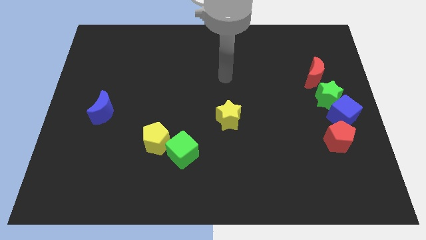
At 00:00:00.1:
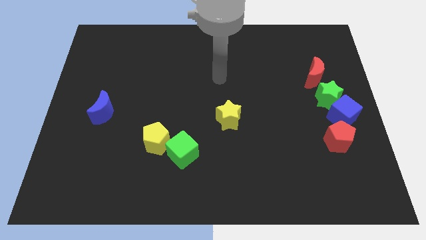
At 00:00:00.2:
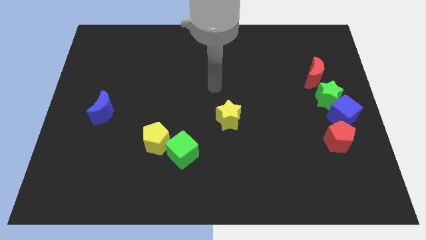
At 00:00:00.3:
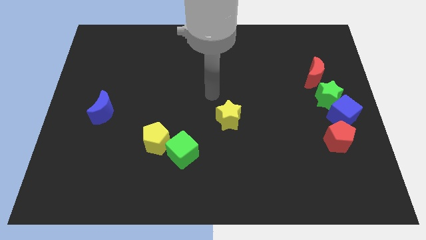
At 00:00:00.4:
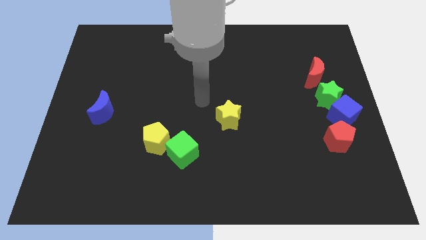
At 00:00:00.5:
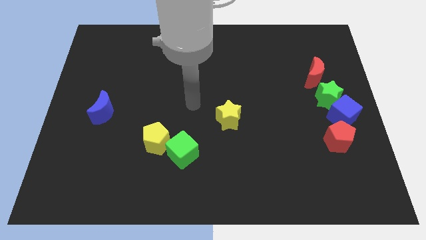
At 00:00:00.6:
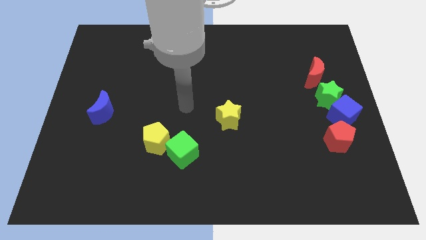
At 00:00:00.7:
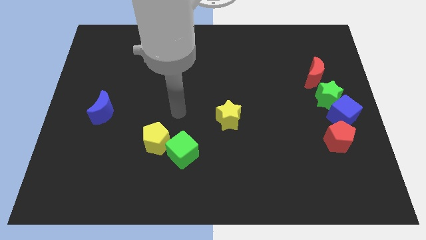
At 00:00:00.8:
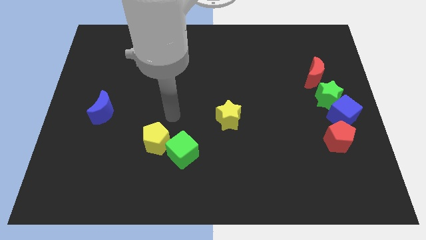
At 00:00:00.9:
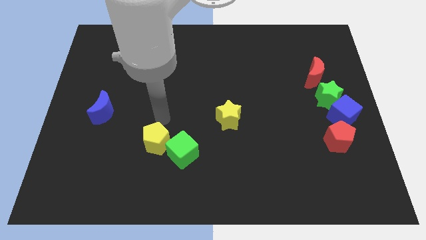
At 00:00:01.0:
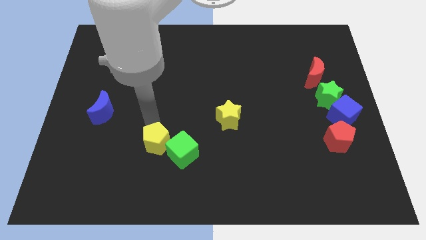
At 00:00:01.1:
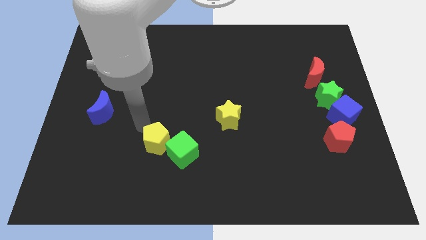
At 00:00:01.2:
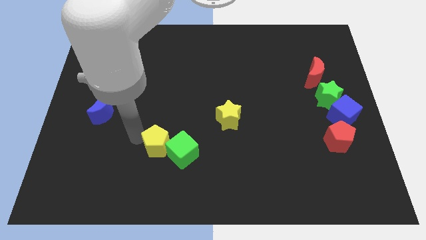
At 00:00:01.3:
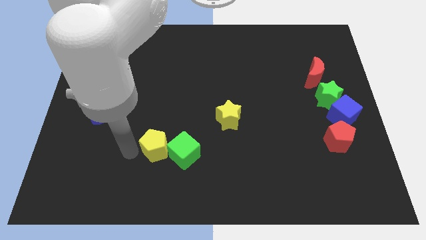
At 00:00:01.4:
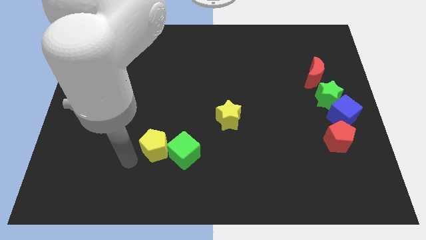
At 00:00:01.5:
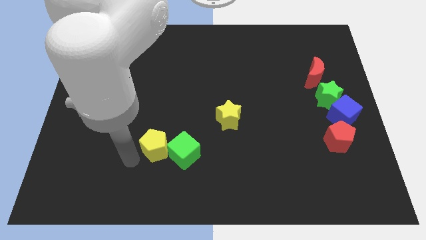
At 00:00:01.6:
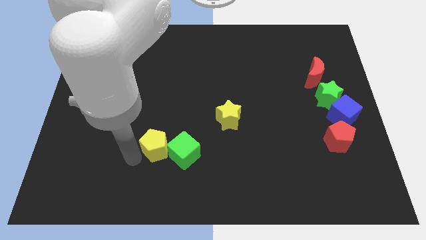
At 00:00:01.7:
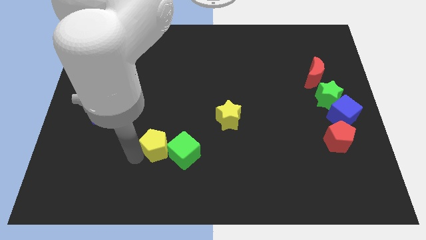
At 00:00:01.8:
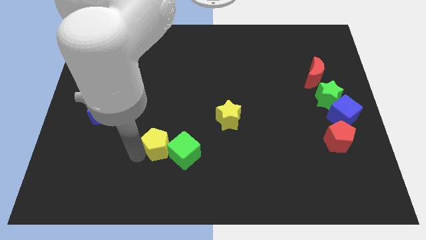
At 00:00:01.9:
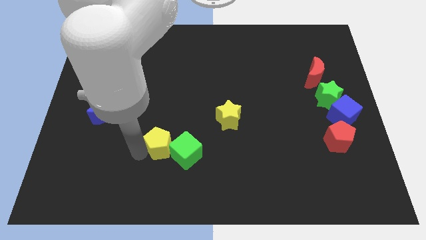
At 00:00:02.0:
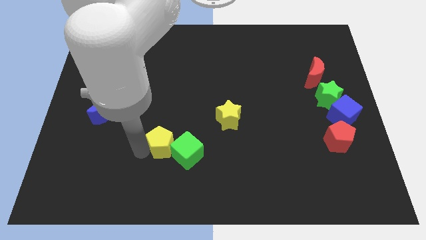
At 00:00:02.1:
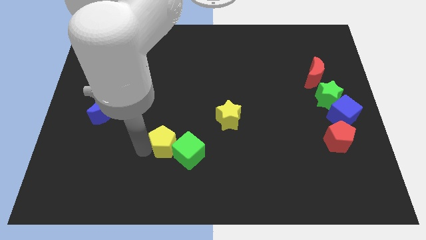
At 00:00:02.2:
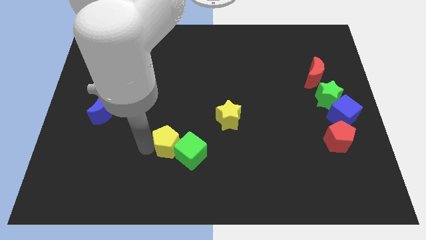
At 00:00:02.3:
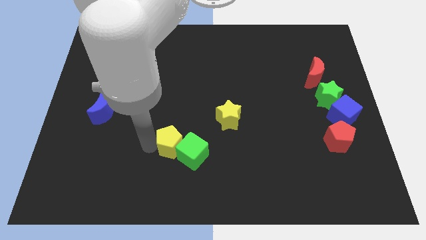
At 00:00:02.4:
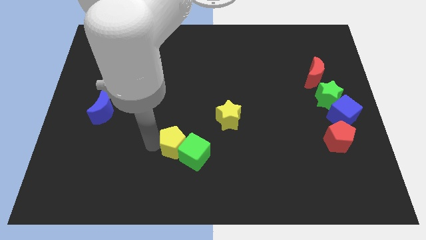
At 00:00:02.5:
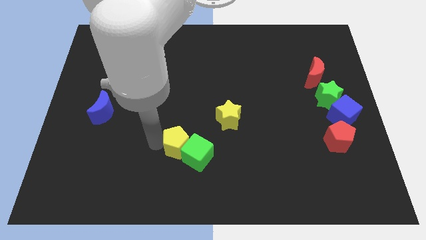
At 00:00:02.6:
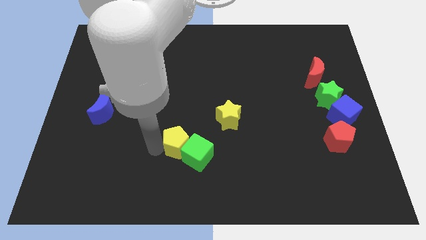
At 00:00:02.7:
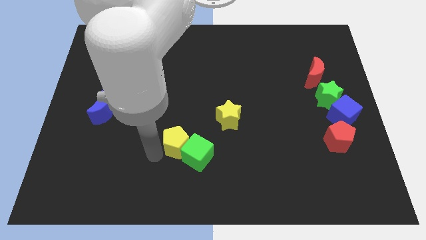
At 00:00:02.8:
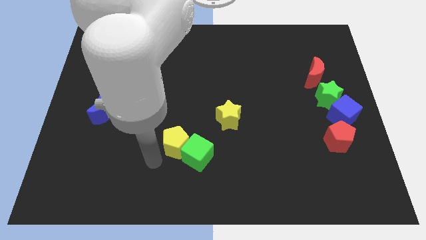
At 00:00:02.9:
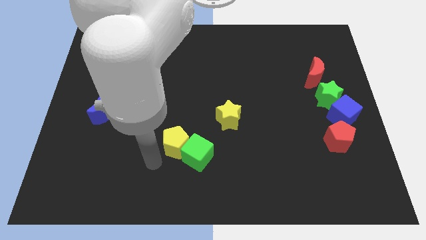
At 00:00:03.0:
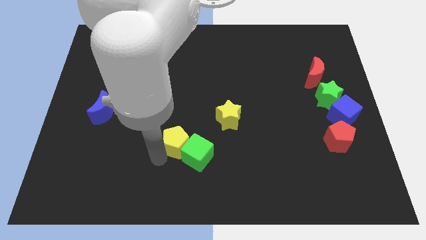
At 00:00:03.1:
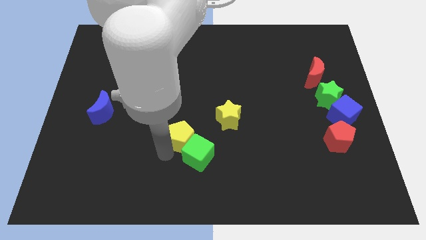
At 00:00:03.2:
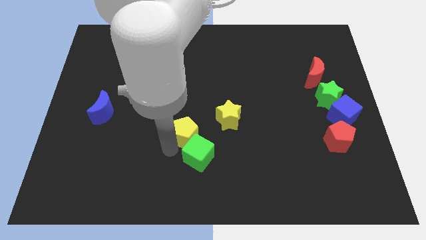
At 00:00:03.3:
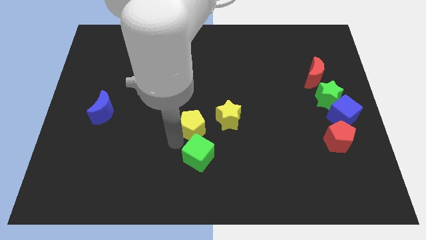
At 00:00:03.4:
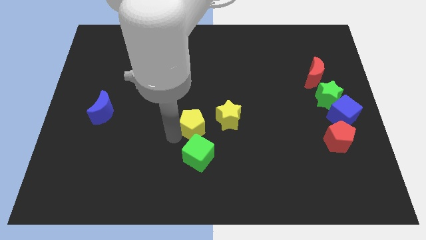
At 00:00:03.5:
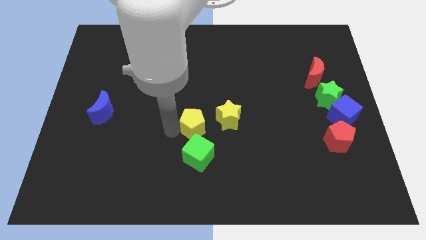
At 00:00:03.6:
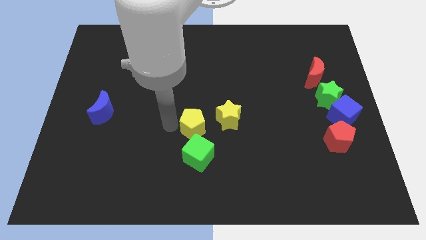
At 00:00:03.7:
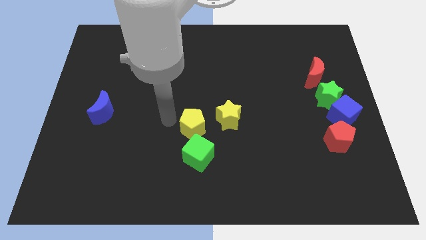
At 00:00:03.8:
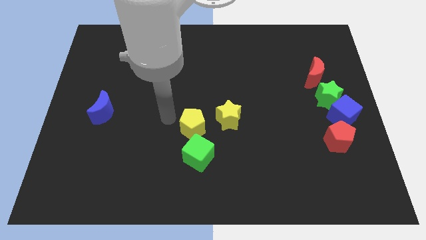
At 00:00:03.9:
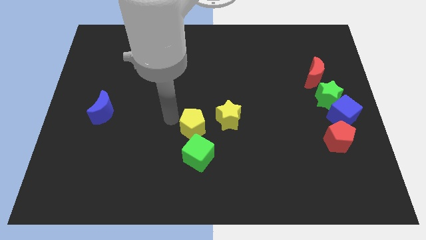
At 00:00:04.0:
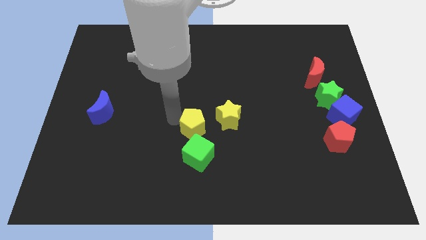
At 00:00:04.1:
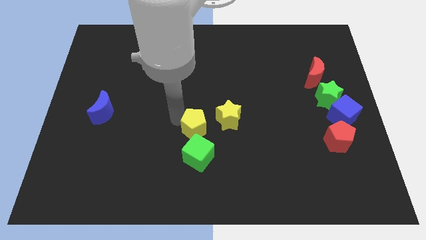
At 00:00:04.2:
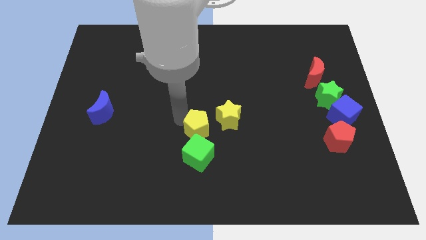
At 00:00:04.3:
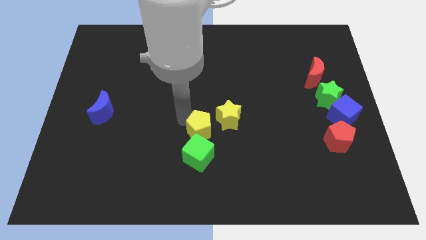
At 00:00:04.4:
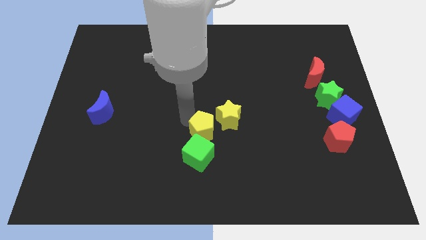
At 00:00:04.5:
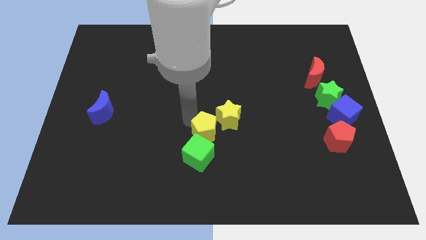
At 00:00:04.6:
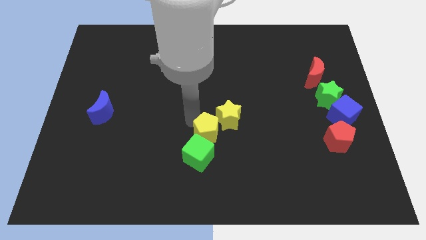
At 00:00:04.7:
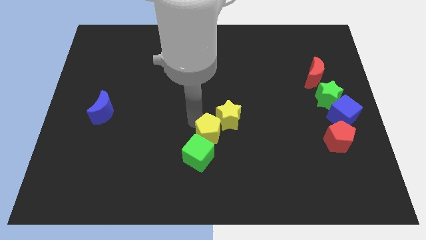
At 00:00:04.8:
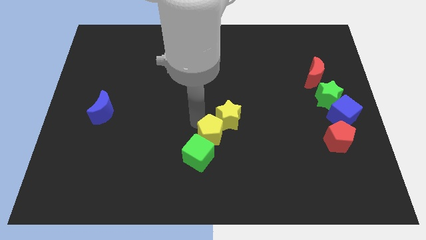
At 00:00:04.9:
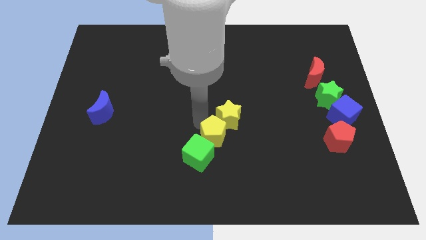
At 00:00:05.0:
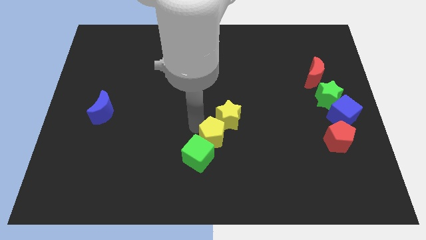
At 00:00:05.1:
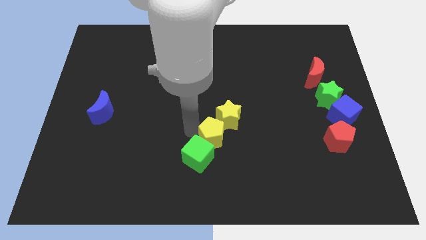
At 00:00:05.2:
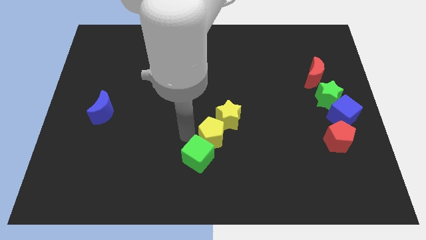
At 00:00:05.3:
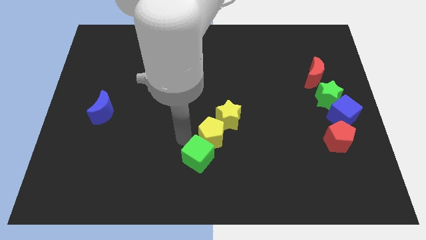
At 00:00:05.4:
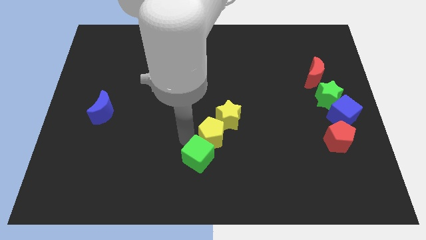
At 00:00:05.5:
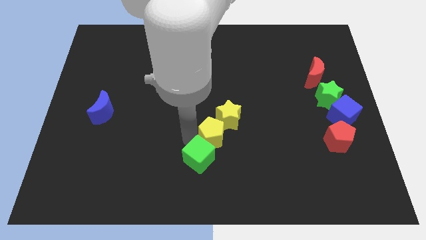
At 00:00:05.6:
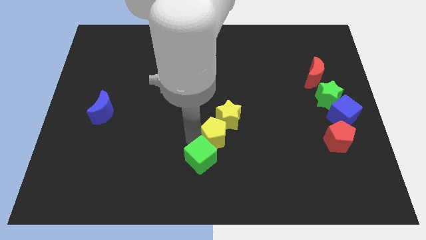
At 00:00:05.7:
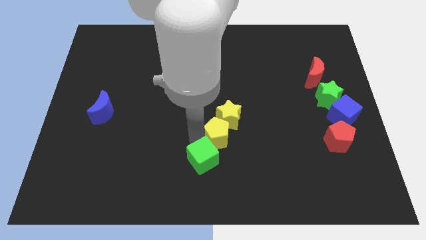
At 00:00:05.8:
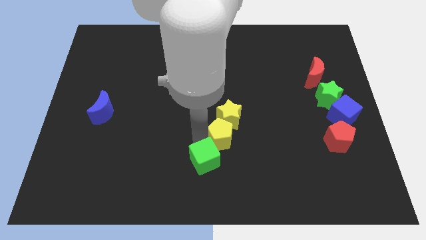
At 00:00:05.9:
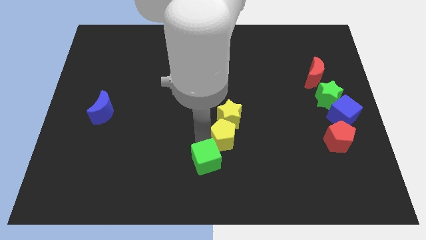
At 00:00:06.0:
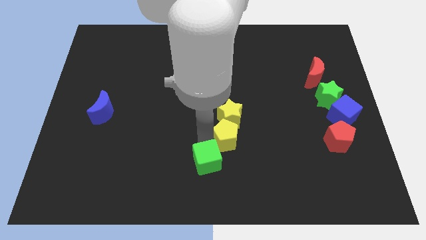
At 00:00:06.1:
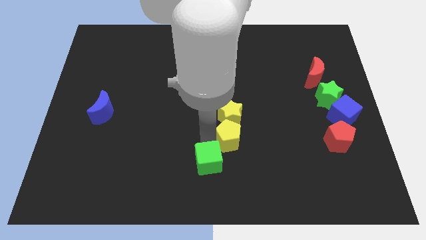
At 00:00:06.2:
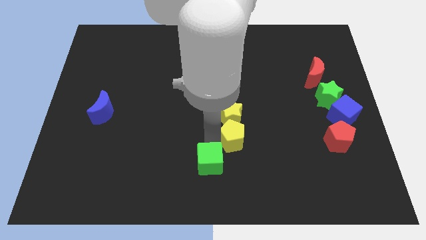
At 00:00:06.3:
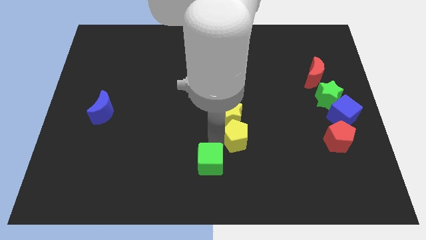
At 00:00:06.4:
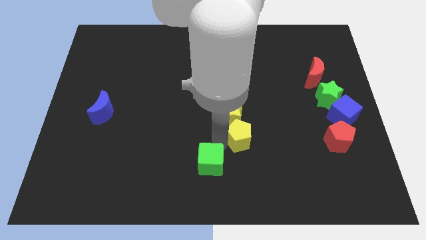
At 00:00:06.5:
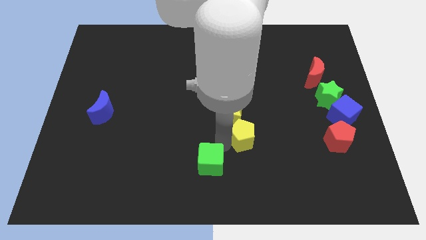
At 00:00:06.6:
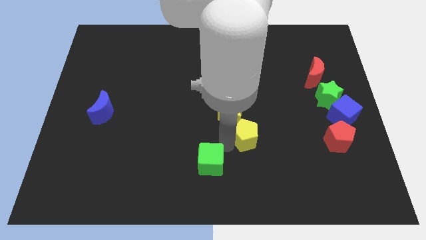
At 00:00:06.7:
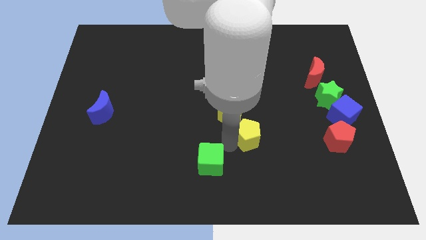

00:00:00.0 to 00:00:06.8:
slide the yellow pentagon right

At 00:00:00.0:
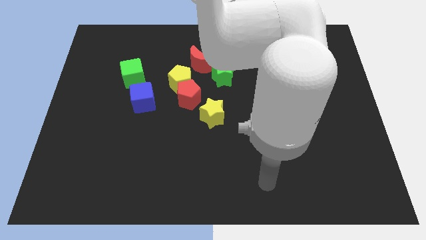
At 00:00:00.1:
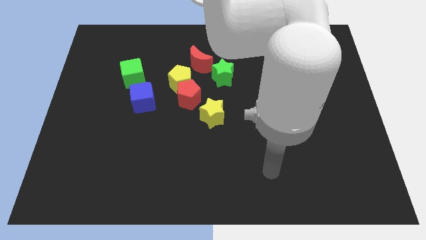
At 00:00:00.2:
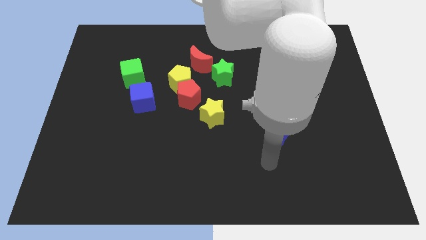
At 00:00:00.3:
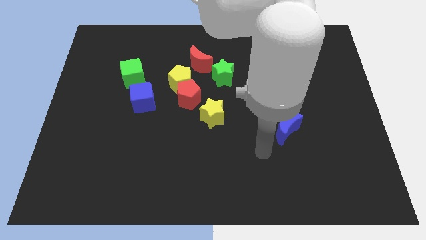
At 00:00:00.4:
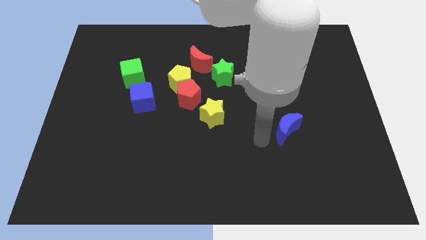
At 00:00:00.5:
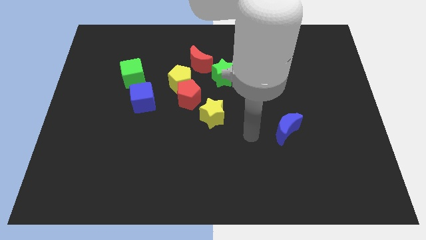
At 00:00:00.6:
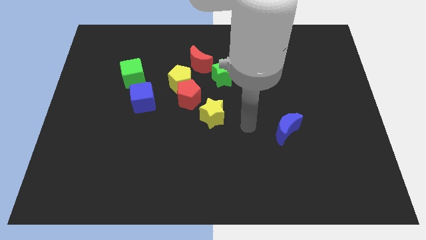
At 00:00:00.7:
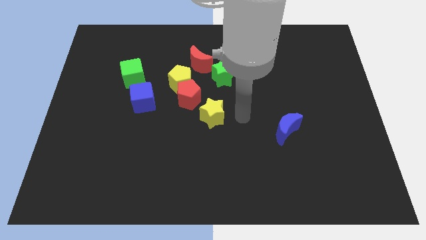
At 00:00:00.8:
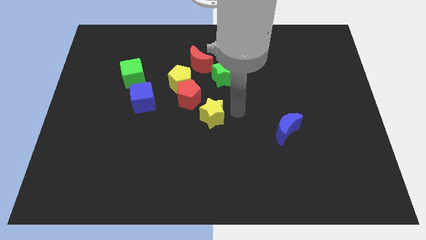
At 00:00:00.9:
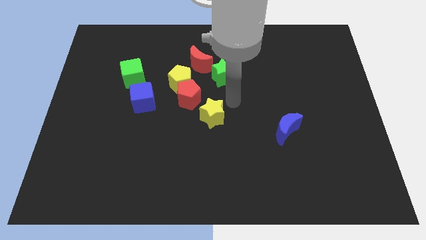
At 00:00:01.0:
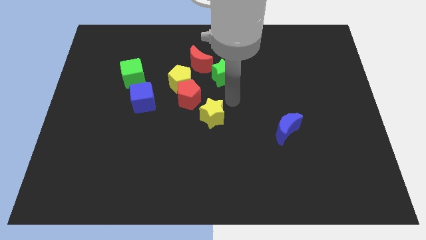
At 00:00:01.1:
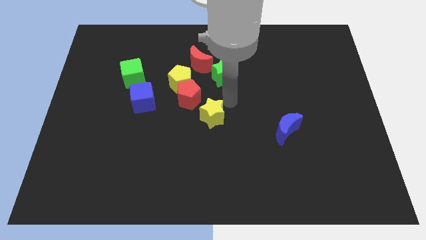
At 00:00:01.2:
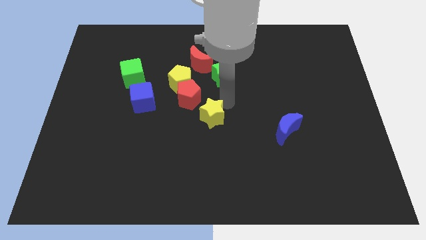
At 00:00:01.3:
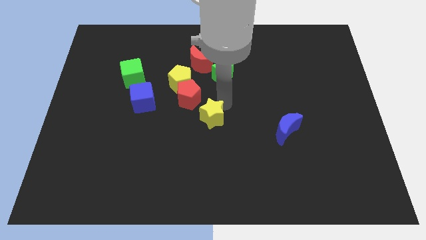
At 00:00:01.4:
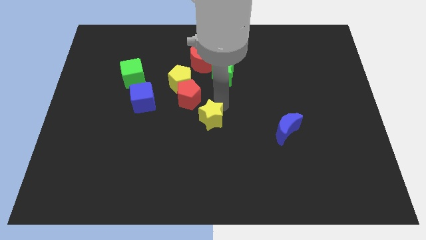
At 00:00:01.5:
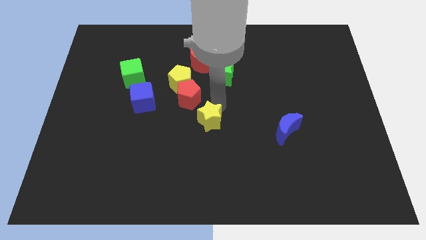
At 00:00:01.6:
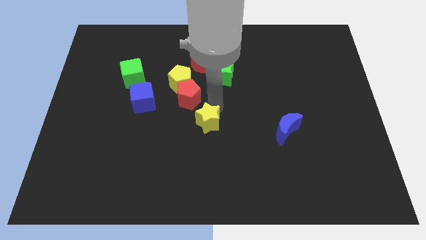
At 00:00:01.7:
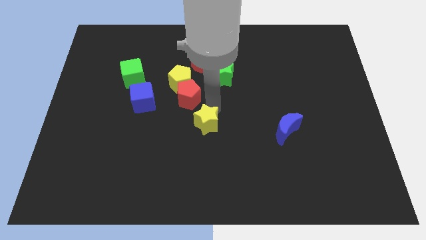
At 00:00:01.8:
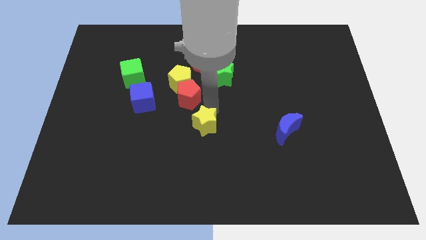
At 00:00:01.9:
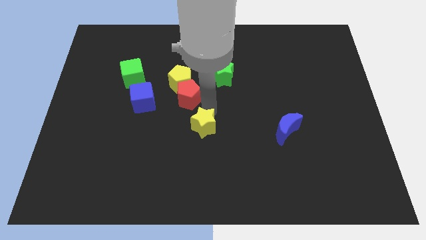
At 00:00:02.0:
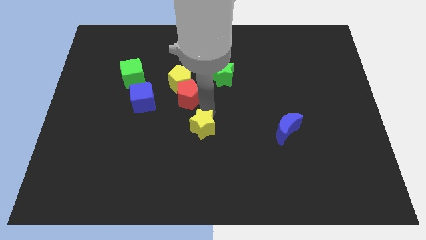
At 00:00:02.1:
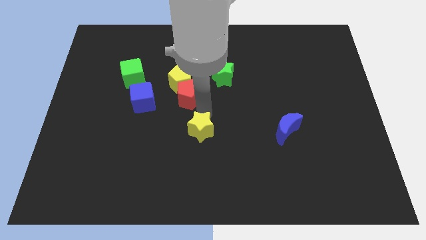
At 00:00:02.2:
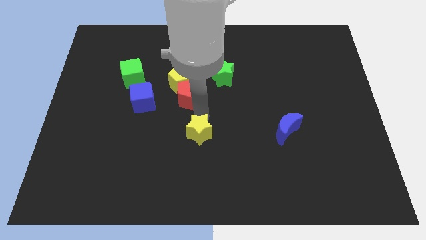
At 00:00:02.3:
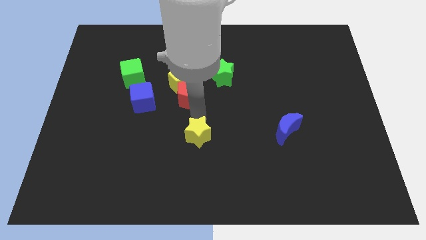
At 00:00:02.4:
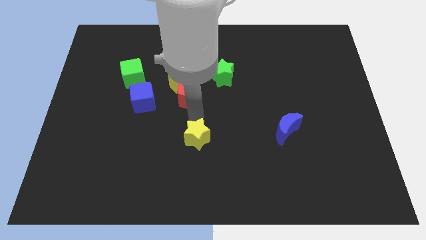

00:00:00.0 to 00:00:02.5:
push the yellow star a bit diagonally downwards and left
